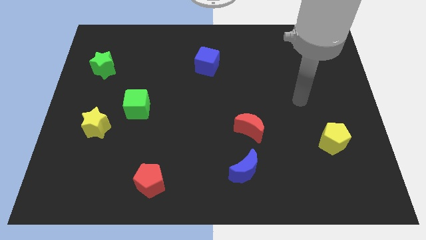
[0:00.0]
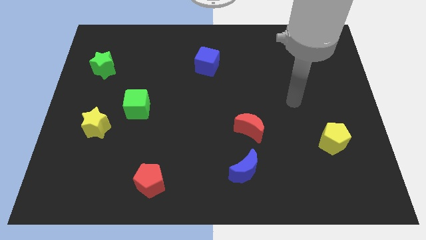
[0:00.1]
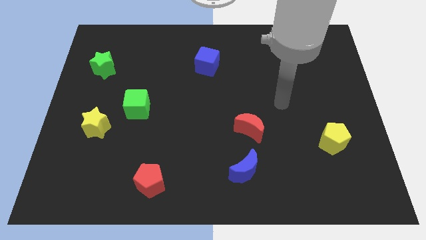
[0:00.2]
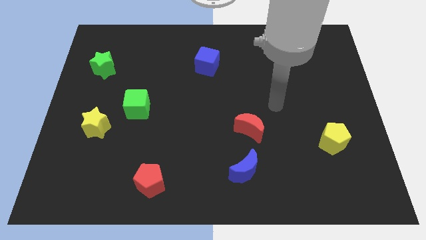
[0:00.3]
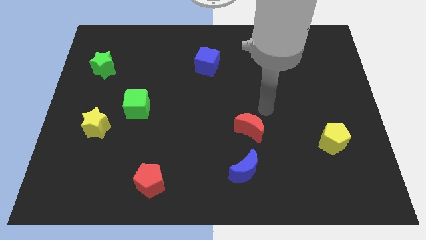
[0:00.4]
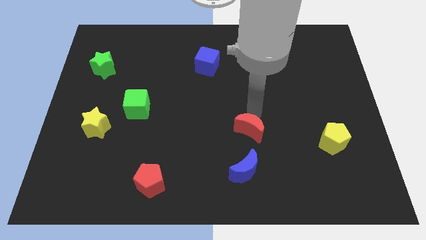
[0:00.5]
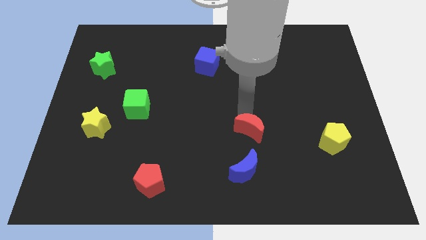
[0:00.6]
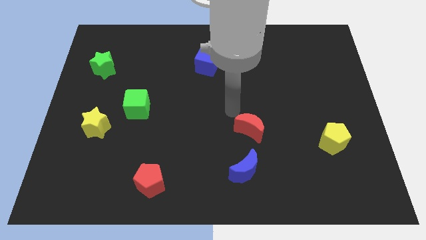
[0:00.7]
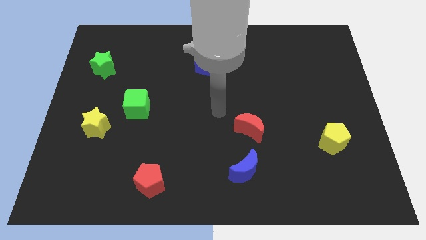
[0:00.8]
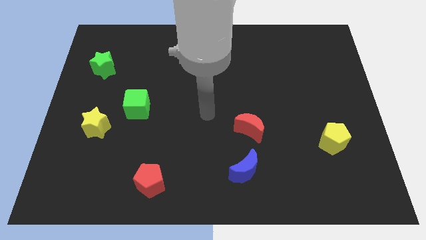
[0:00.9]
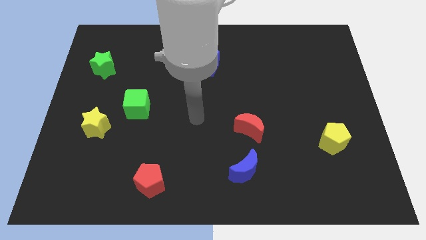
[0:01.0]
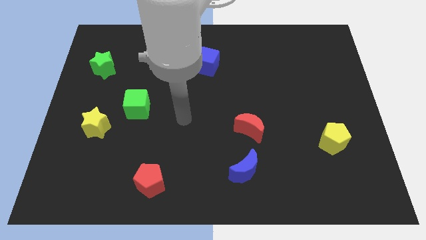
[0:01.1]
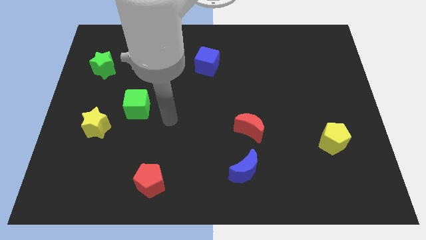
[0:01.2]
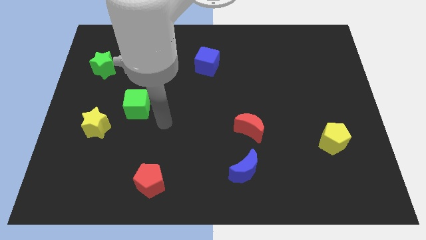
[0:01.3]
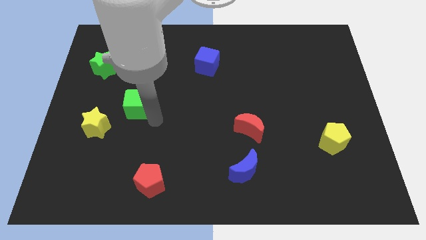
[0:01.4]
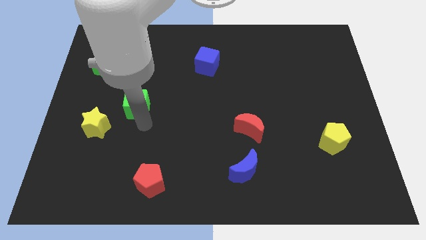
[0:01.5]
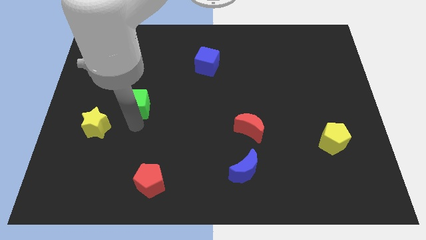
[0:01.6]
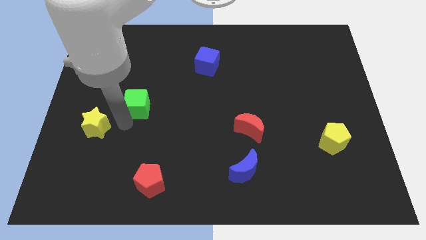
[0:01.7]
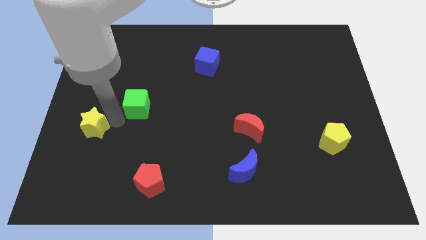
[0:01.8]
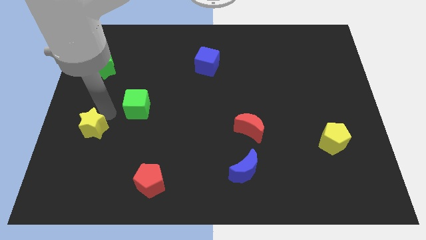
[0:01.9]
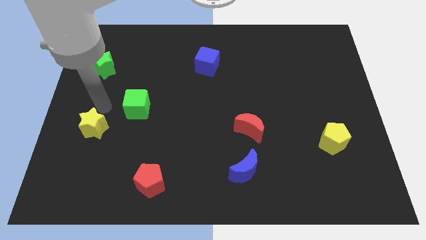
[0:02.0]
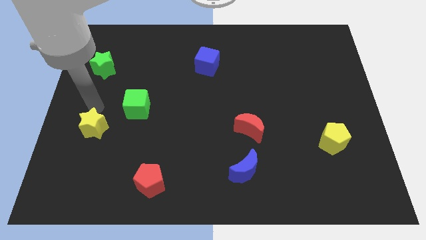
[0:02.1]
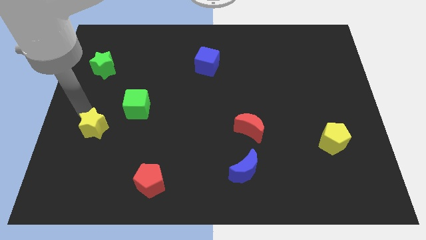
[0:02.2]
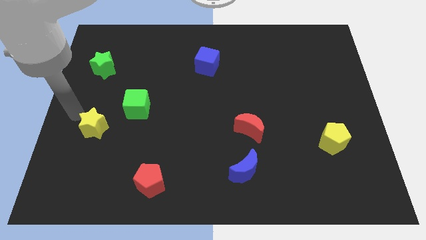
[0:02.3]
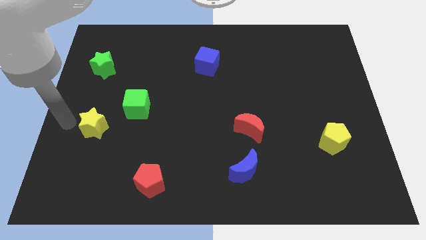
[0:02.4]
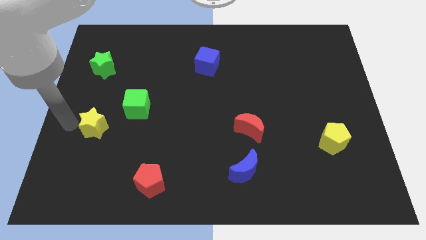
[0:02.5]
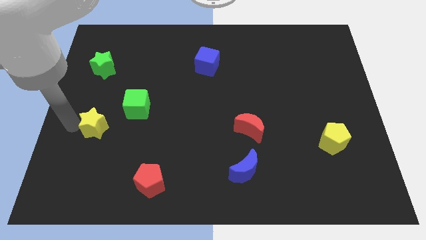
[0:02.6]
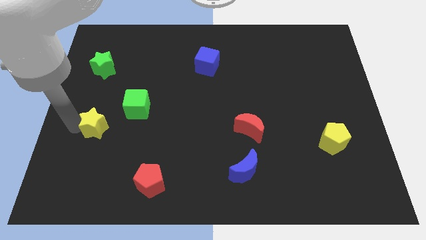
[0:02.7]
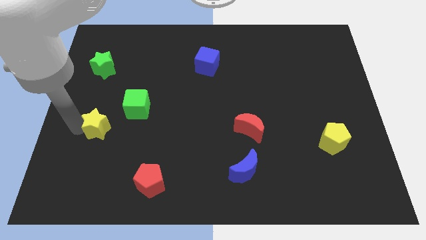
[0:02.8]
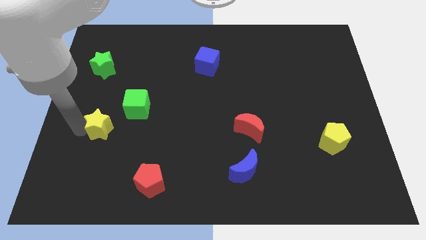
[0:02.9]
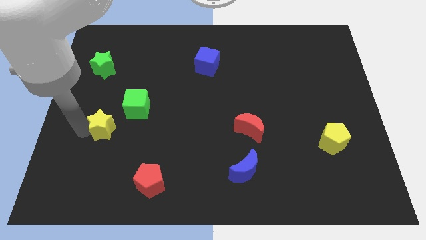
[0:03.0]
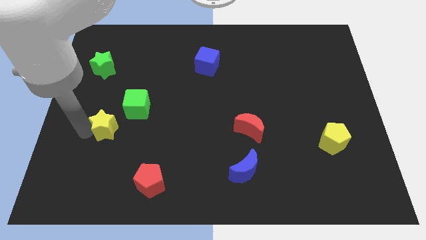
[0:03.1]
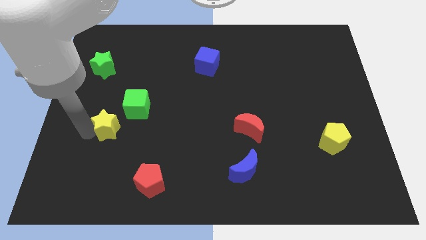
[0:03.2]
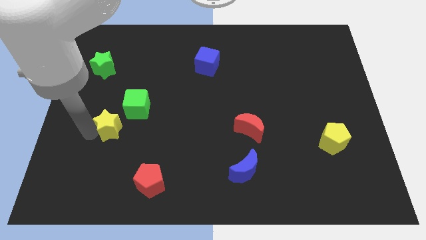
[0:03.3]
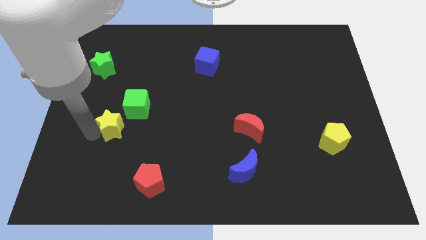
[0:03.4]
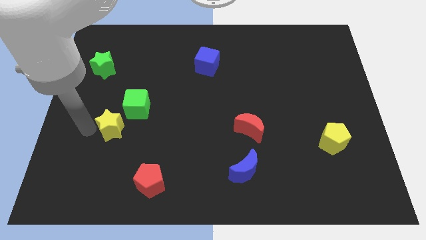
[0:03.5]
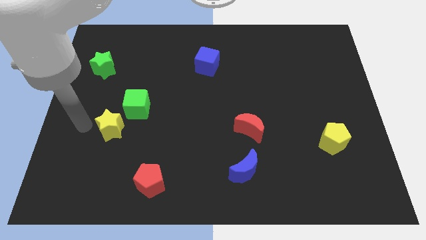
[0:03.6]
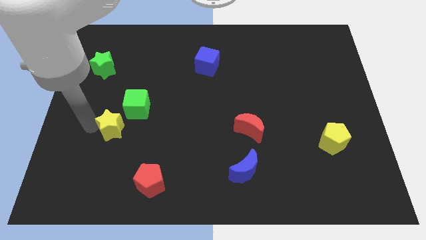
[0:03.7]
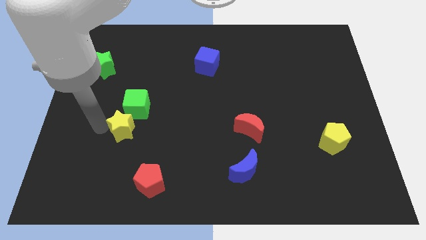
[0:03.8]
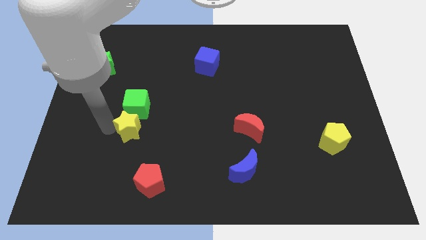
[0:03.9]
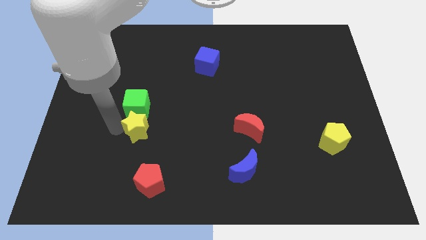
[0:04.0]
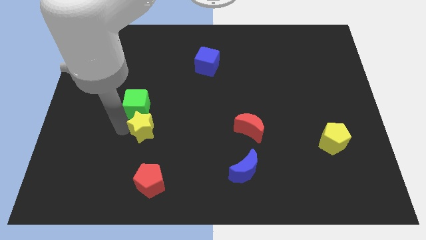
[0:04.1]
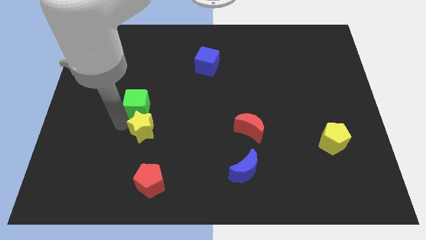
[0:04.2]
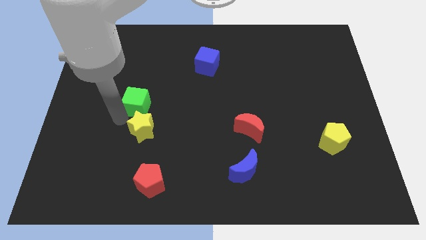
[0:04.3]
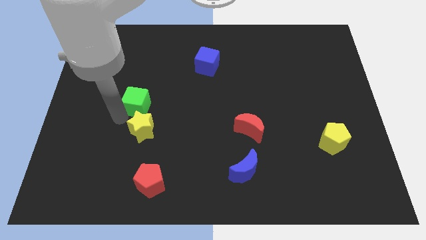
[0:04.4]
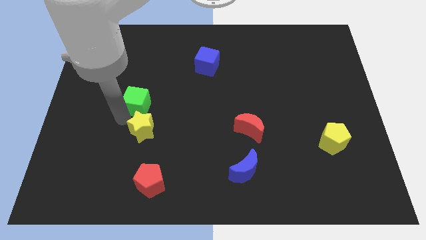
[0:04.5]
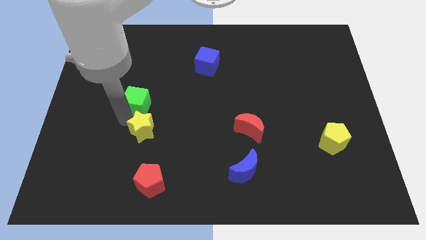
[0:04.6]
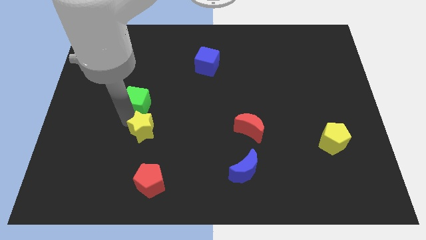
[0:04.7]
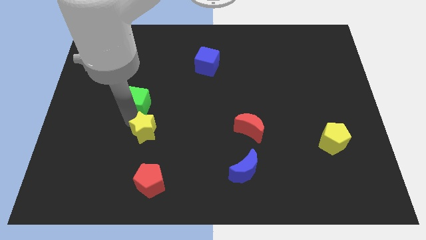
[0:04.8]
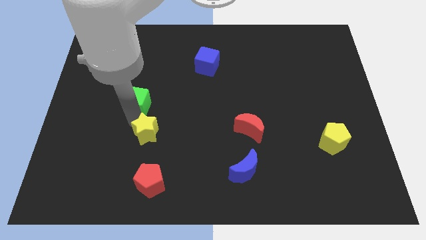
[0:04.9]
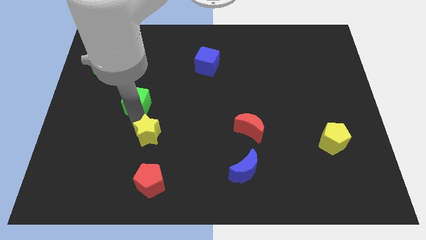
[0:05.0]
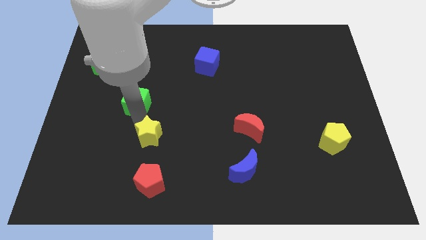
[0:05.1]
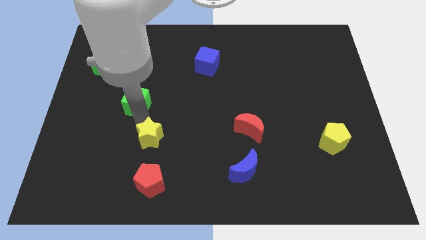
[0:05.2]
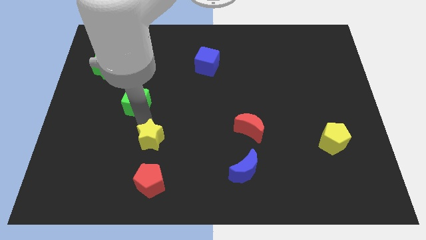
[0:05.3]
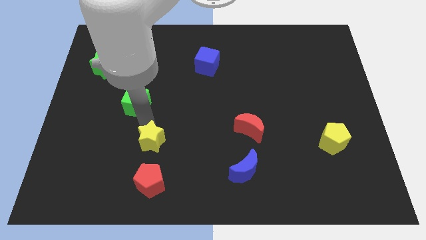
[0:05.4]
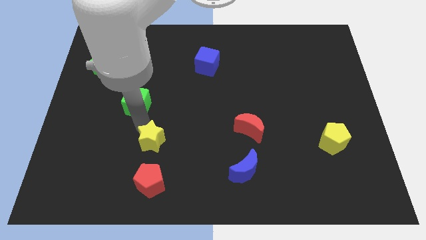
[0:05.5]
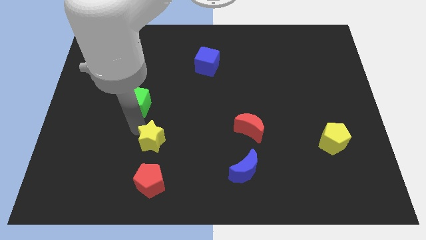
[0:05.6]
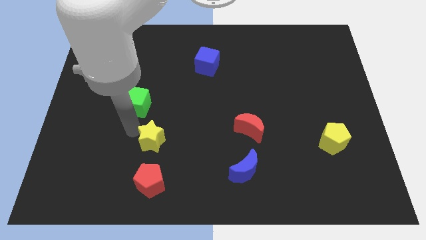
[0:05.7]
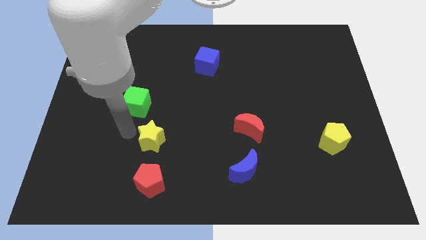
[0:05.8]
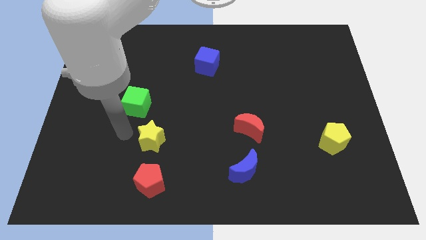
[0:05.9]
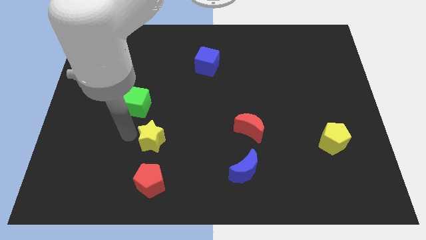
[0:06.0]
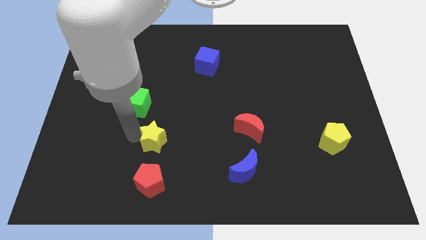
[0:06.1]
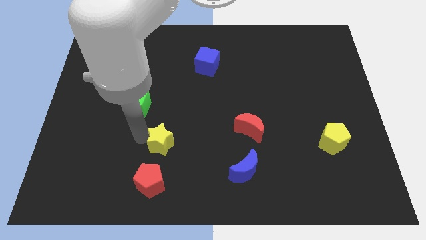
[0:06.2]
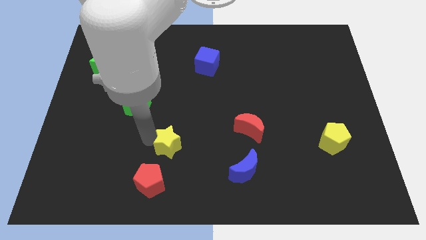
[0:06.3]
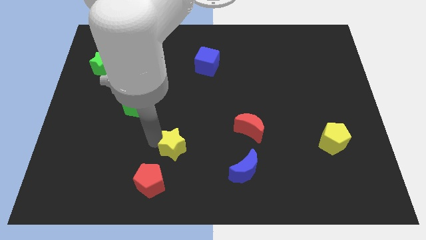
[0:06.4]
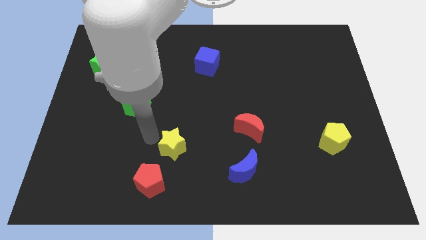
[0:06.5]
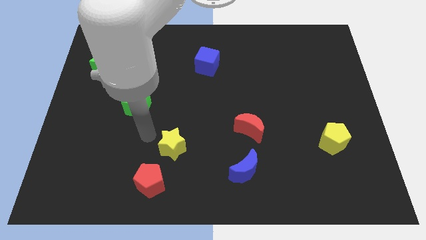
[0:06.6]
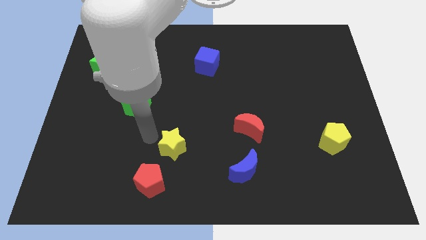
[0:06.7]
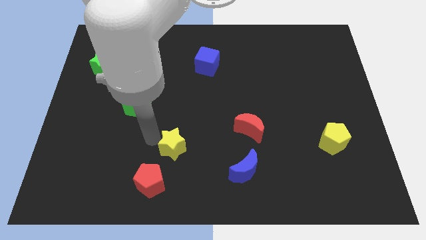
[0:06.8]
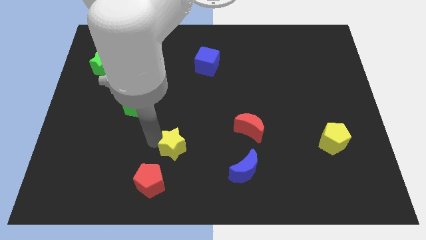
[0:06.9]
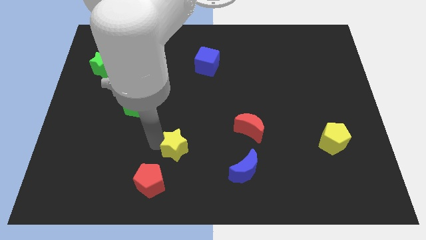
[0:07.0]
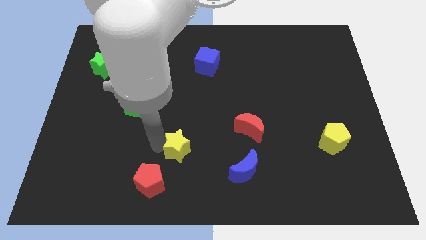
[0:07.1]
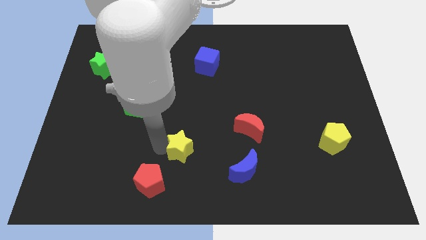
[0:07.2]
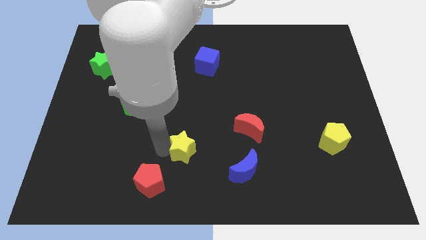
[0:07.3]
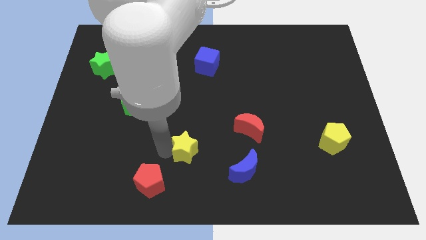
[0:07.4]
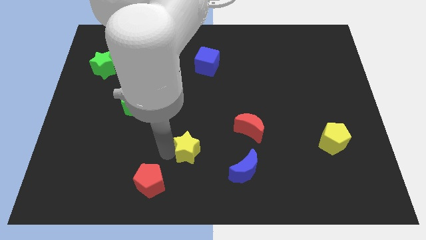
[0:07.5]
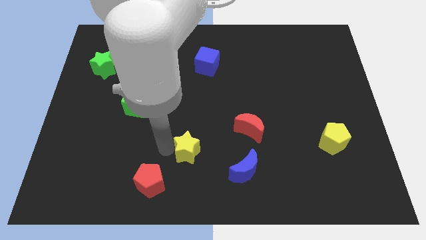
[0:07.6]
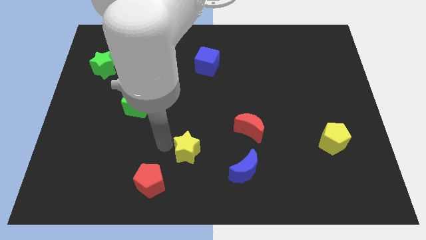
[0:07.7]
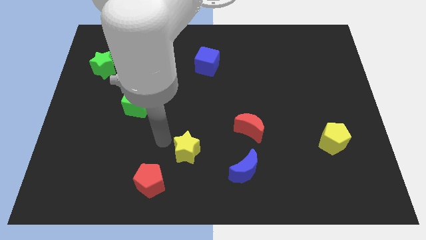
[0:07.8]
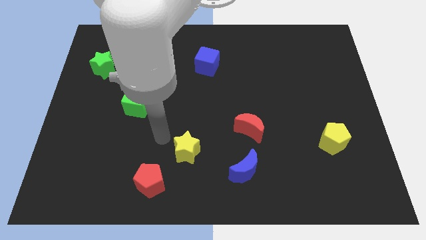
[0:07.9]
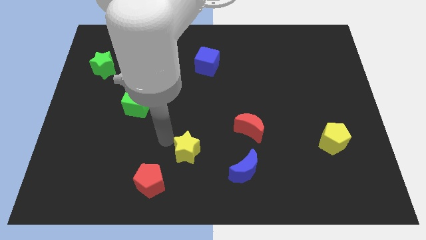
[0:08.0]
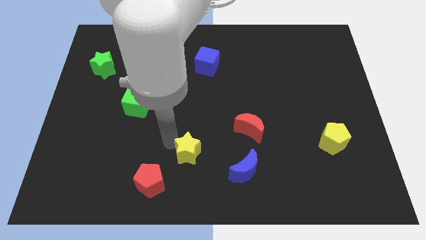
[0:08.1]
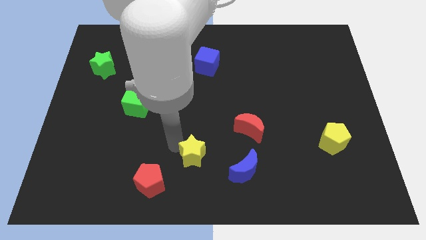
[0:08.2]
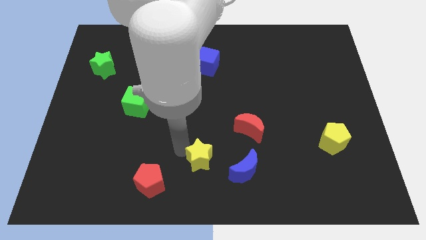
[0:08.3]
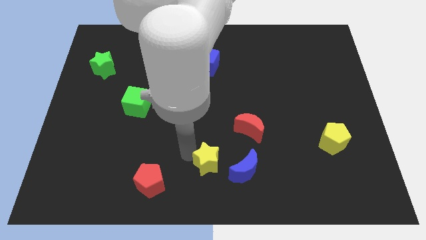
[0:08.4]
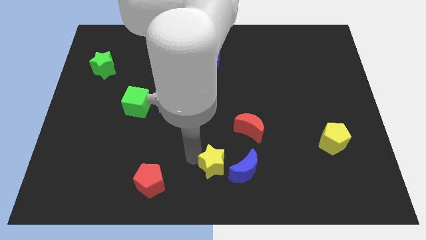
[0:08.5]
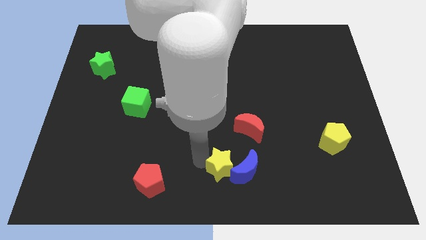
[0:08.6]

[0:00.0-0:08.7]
slide the yellow star to the blue moon
